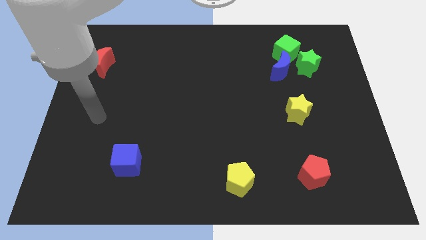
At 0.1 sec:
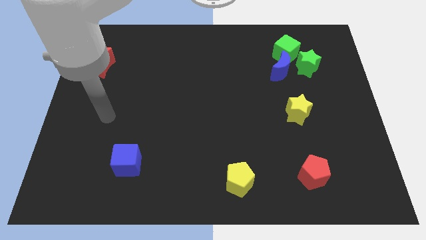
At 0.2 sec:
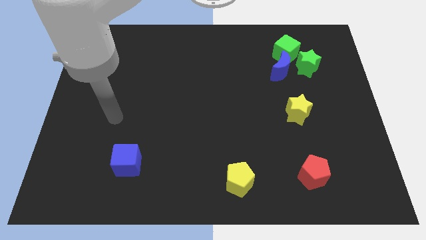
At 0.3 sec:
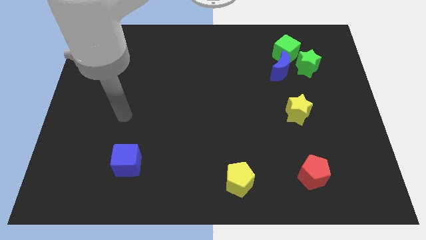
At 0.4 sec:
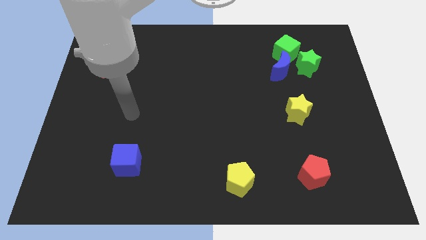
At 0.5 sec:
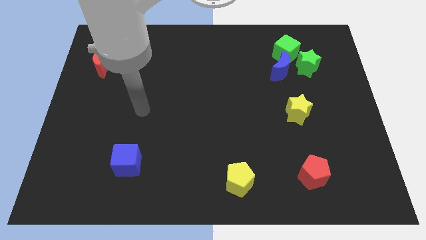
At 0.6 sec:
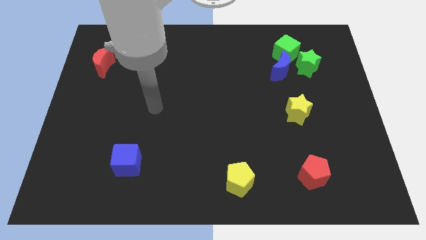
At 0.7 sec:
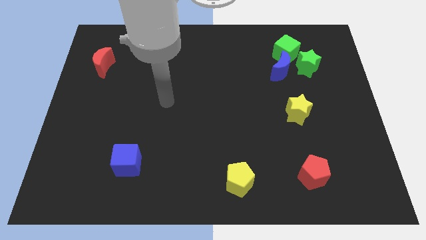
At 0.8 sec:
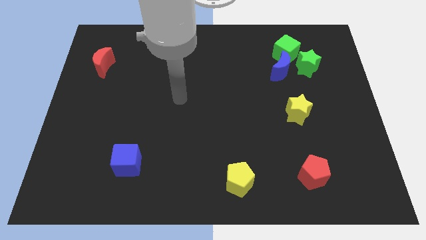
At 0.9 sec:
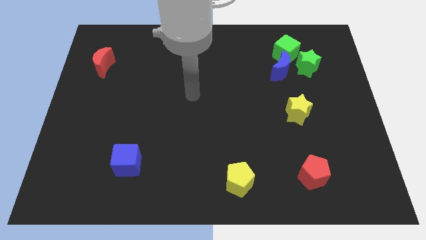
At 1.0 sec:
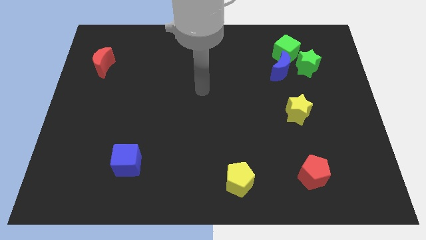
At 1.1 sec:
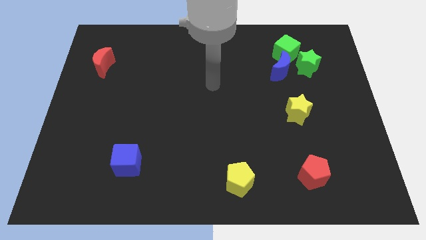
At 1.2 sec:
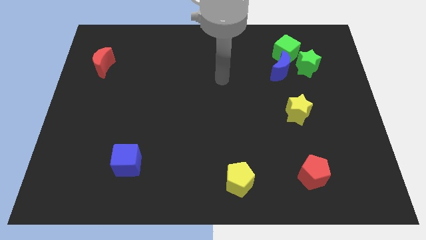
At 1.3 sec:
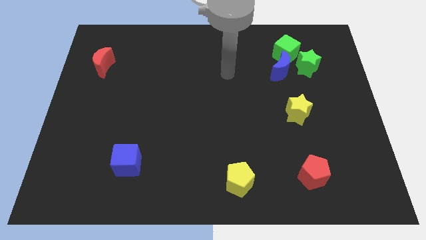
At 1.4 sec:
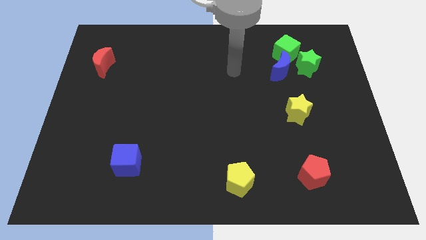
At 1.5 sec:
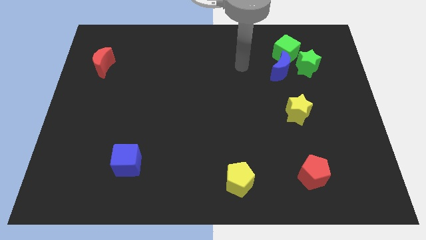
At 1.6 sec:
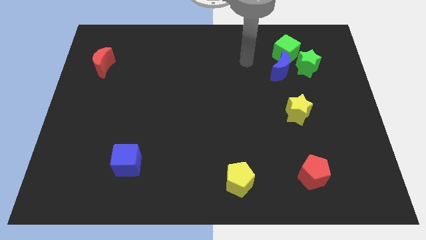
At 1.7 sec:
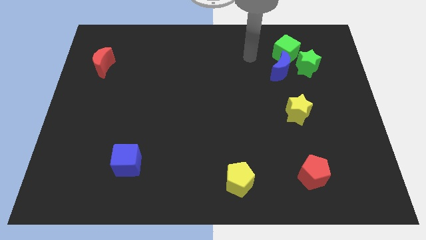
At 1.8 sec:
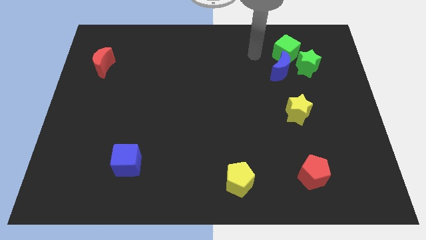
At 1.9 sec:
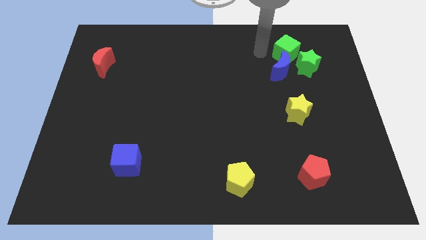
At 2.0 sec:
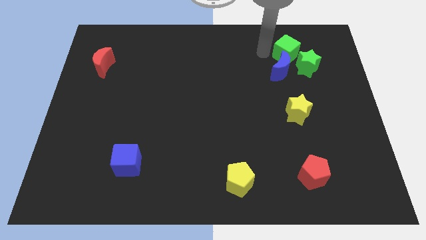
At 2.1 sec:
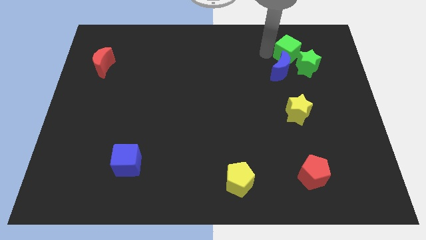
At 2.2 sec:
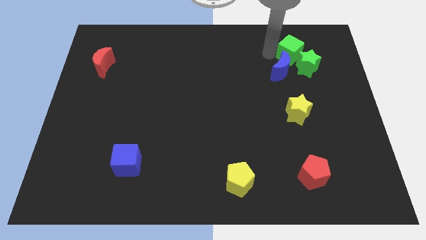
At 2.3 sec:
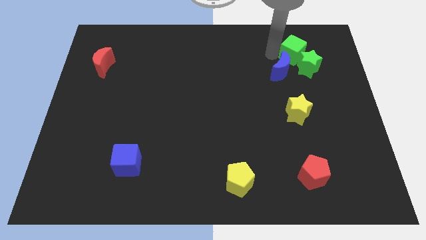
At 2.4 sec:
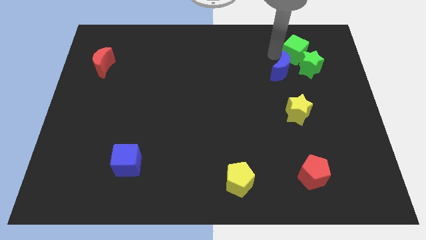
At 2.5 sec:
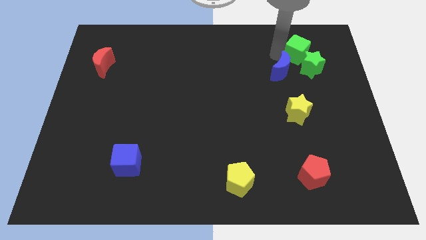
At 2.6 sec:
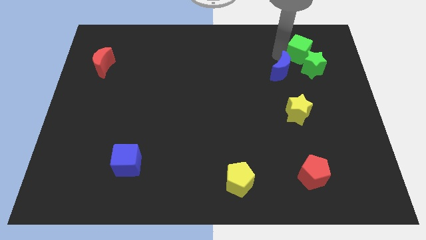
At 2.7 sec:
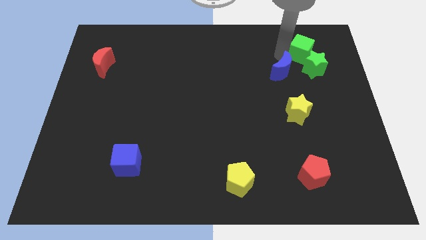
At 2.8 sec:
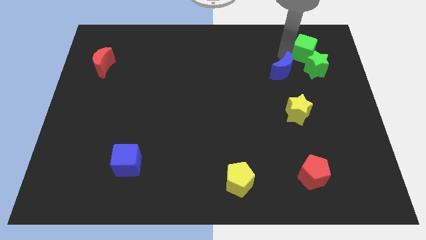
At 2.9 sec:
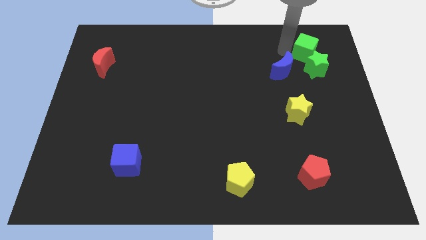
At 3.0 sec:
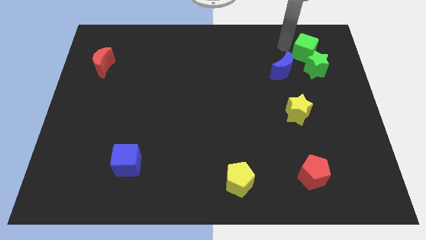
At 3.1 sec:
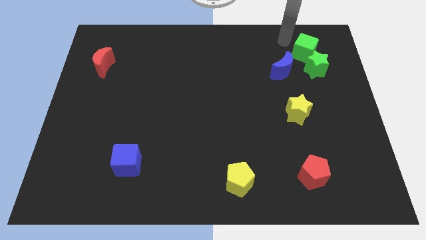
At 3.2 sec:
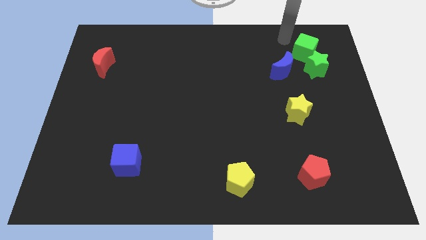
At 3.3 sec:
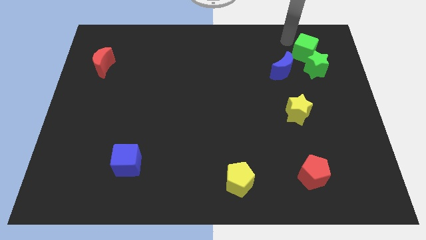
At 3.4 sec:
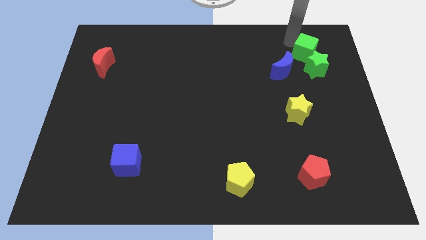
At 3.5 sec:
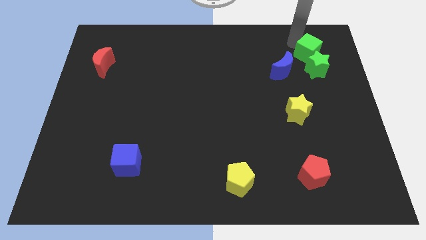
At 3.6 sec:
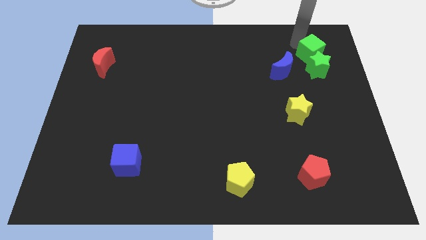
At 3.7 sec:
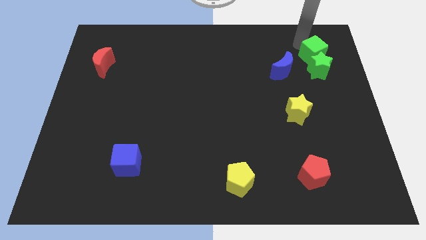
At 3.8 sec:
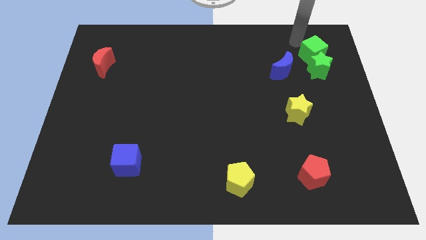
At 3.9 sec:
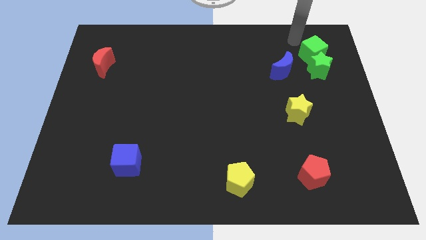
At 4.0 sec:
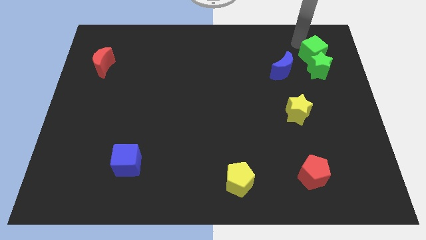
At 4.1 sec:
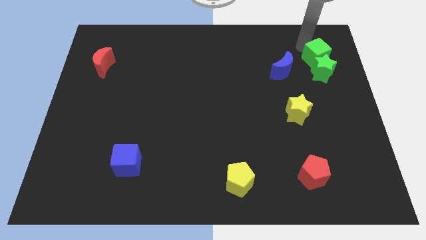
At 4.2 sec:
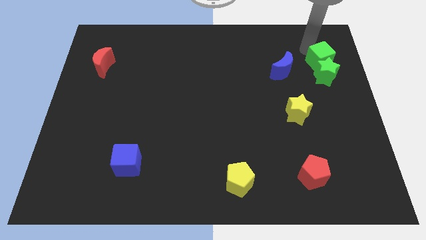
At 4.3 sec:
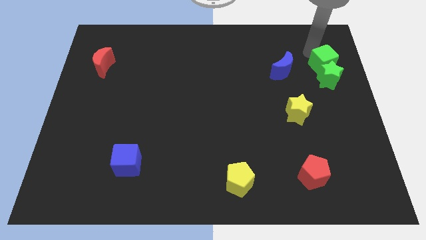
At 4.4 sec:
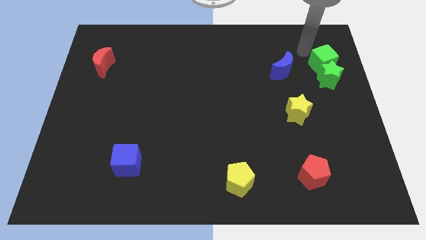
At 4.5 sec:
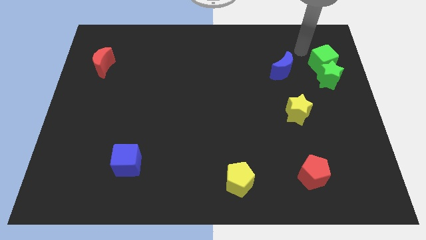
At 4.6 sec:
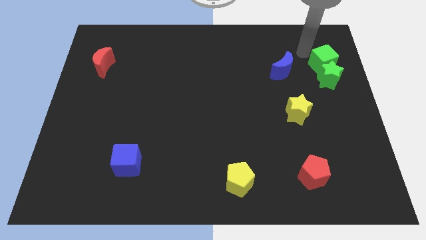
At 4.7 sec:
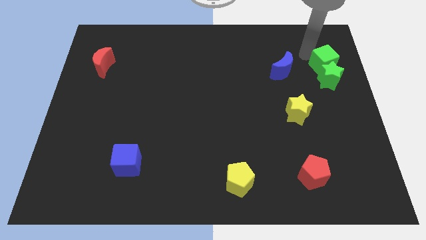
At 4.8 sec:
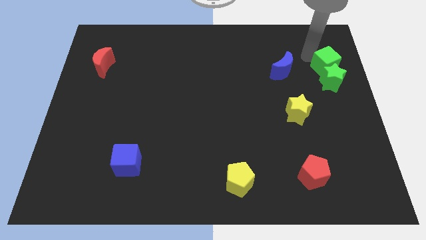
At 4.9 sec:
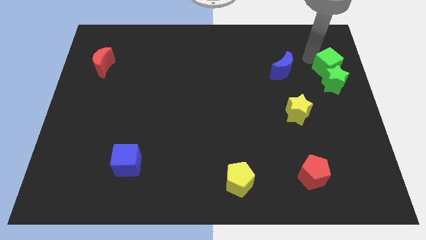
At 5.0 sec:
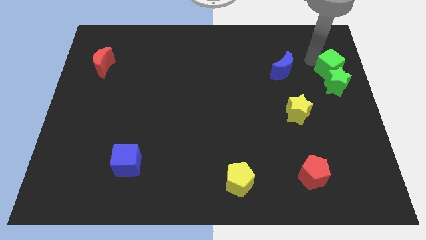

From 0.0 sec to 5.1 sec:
push the green cube to the center right

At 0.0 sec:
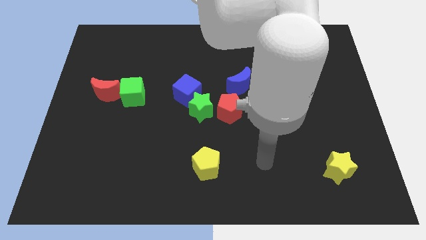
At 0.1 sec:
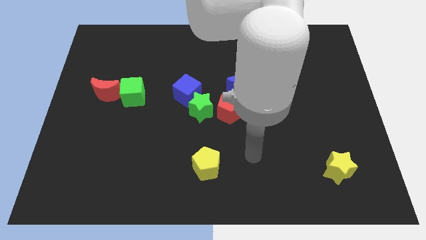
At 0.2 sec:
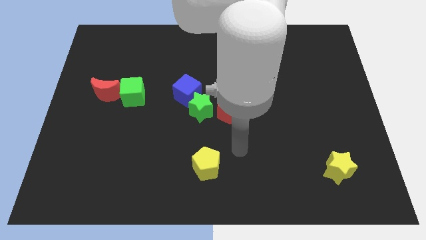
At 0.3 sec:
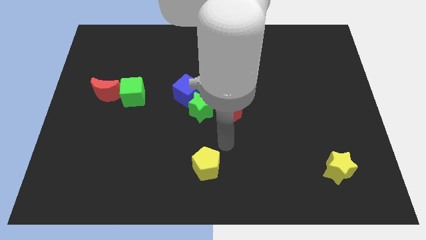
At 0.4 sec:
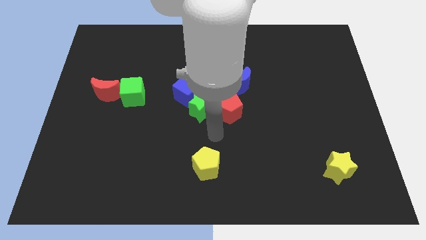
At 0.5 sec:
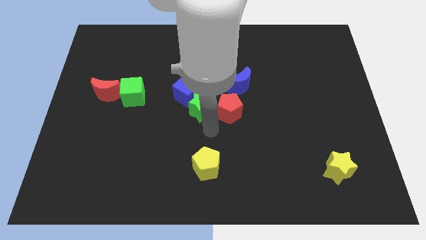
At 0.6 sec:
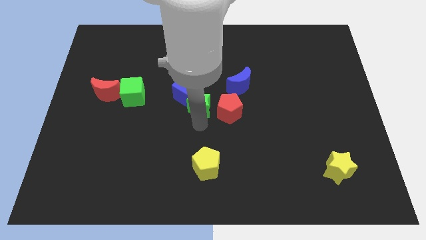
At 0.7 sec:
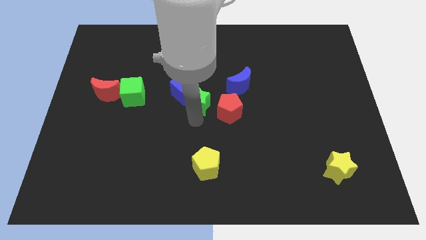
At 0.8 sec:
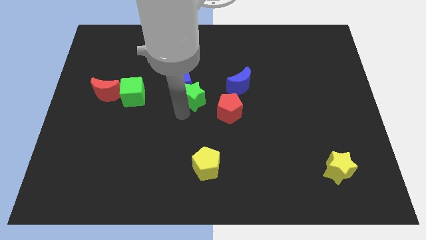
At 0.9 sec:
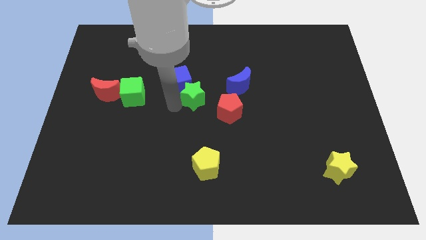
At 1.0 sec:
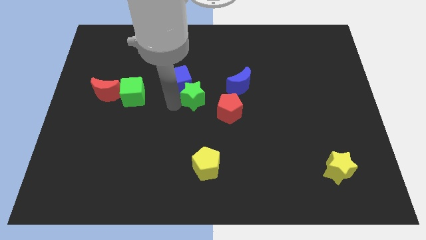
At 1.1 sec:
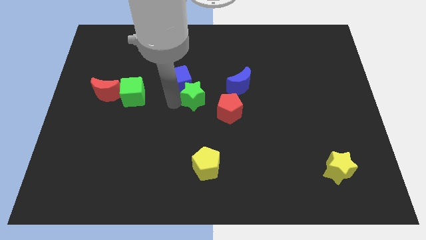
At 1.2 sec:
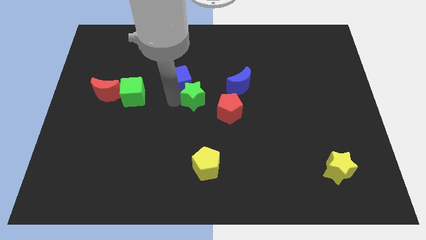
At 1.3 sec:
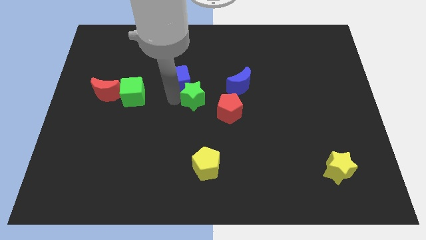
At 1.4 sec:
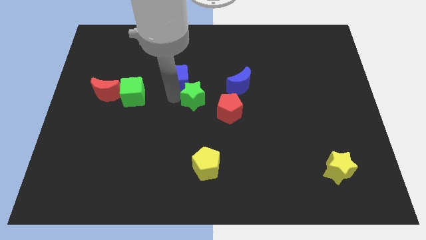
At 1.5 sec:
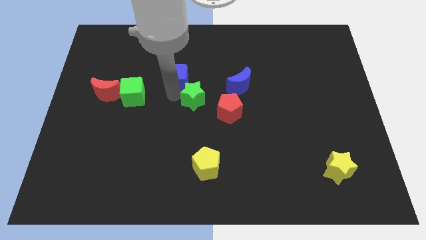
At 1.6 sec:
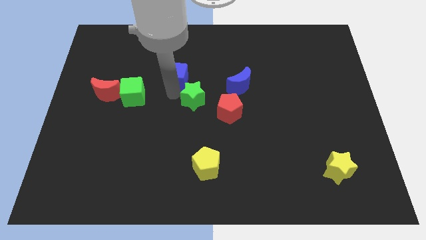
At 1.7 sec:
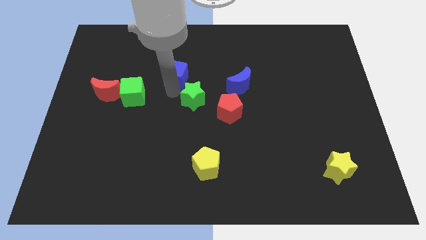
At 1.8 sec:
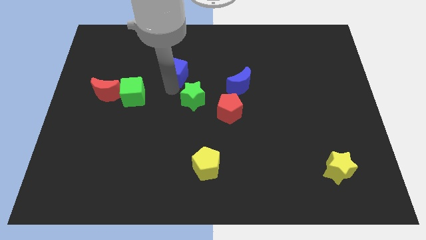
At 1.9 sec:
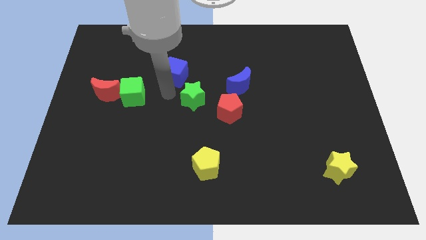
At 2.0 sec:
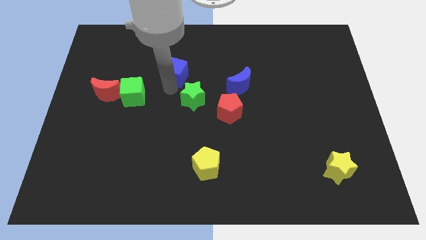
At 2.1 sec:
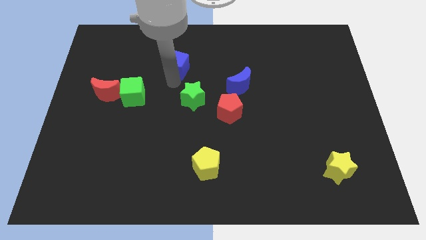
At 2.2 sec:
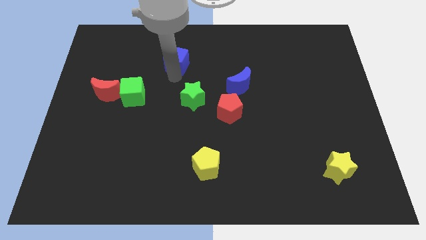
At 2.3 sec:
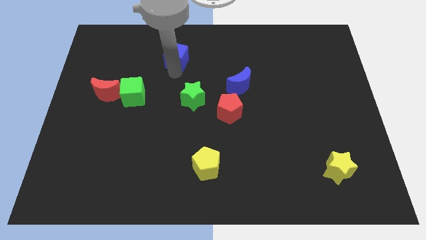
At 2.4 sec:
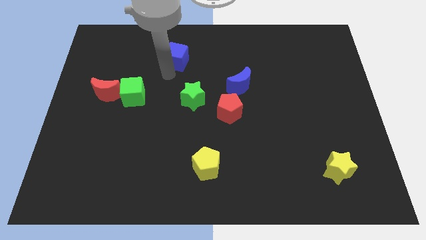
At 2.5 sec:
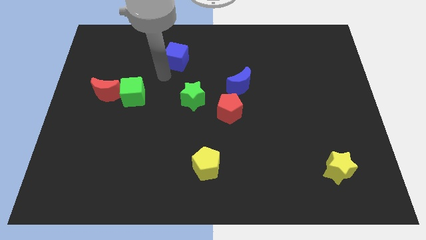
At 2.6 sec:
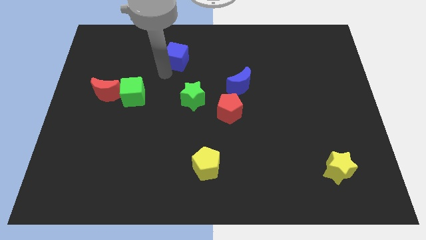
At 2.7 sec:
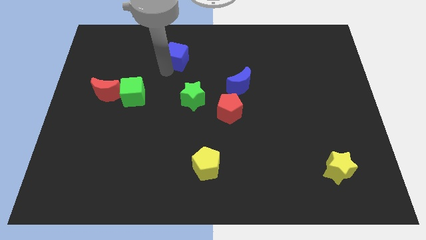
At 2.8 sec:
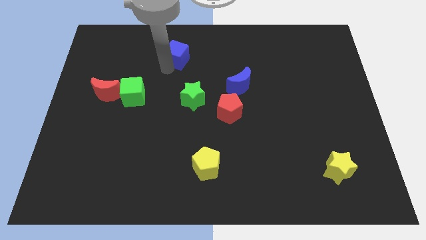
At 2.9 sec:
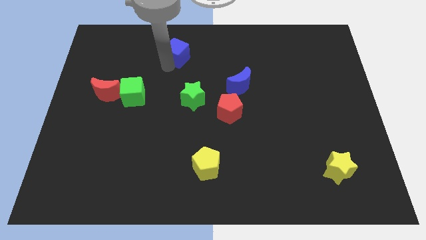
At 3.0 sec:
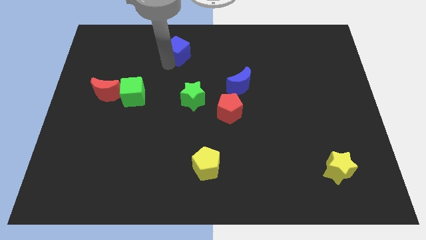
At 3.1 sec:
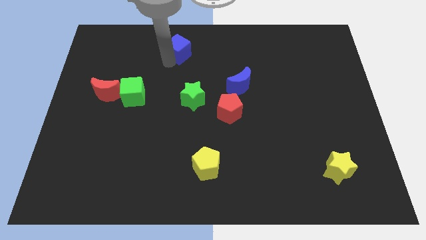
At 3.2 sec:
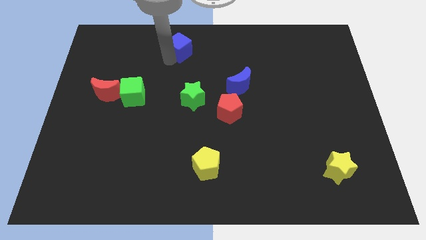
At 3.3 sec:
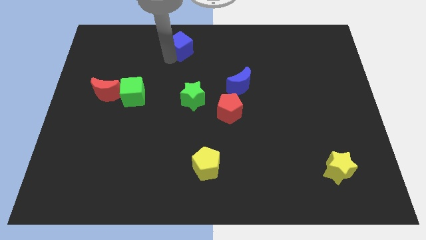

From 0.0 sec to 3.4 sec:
move the blue cube to the top side
